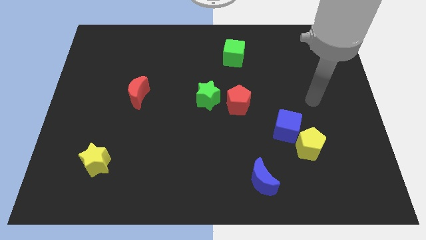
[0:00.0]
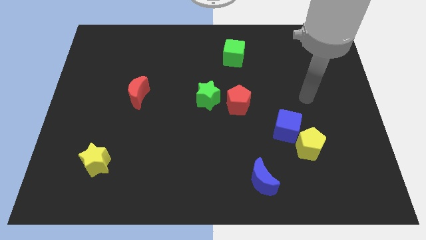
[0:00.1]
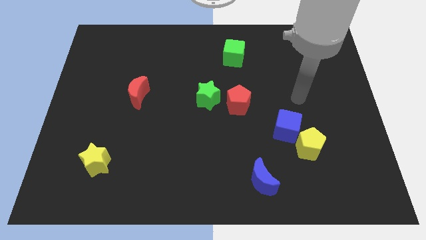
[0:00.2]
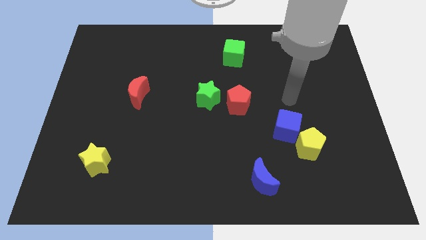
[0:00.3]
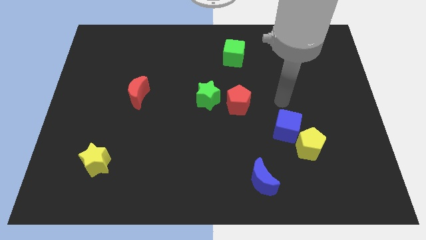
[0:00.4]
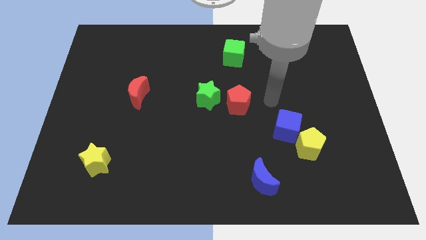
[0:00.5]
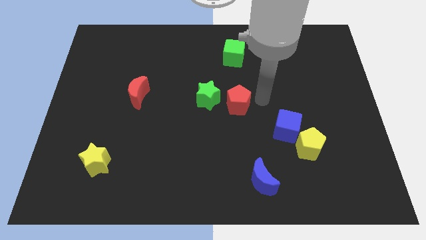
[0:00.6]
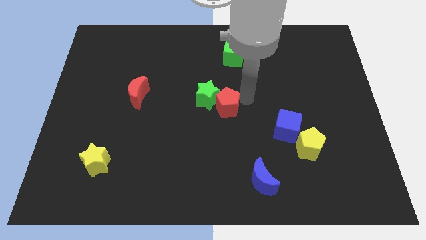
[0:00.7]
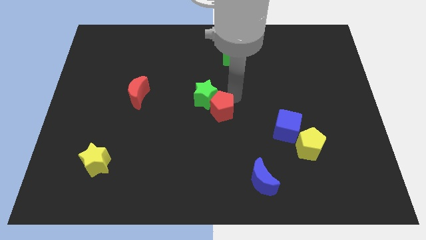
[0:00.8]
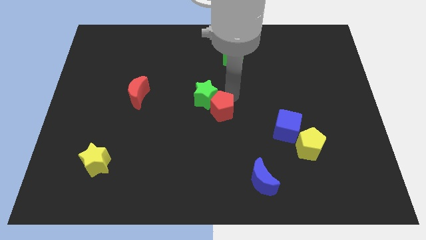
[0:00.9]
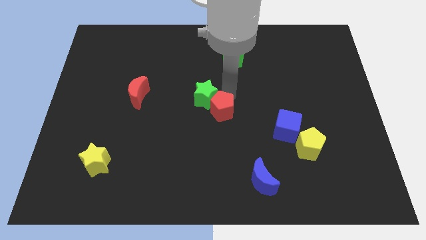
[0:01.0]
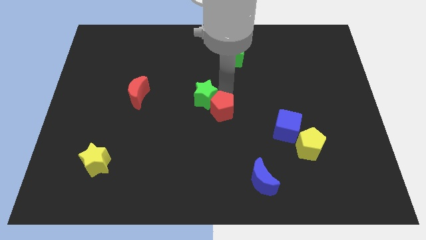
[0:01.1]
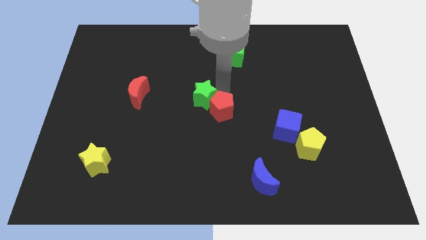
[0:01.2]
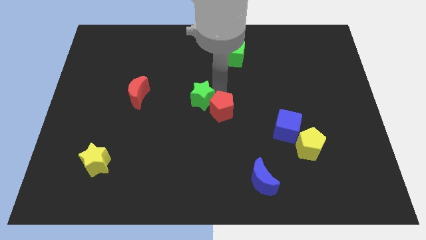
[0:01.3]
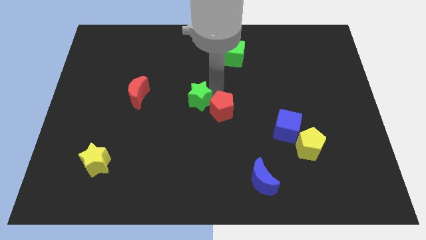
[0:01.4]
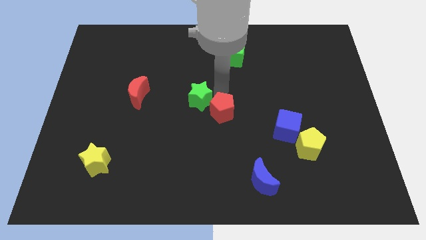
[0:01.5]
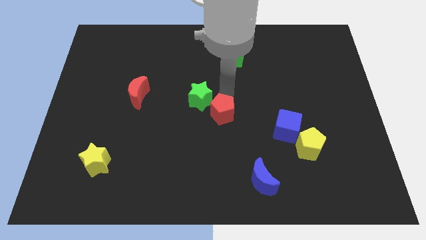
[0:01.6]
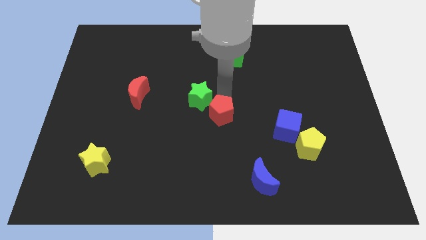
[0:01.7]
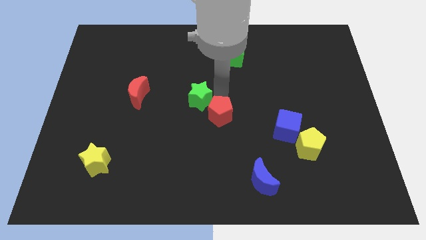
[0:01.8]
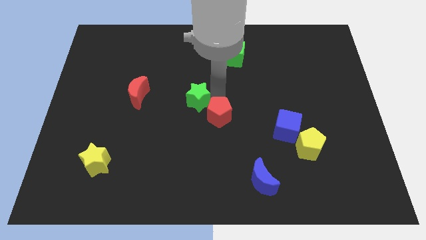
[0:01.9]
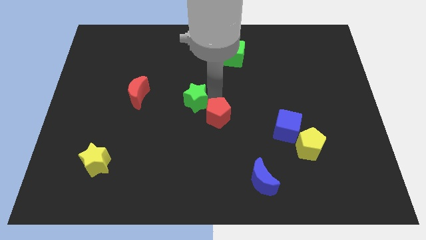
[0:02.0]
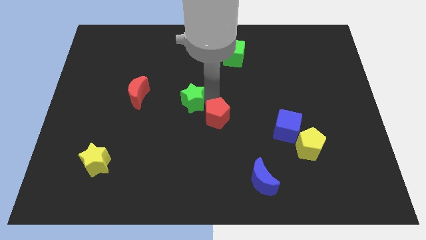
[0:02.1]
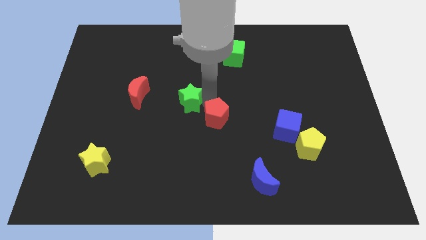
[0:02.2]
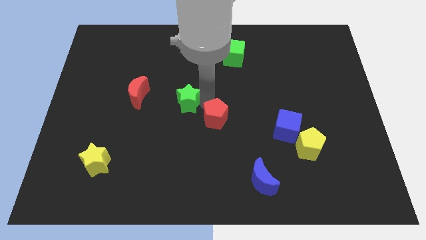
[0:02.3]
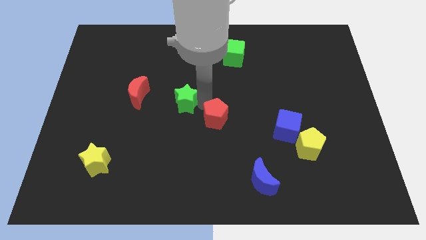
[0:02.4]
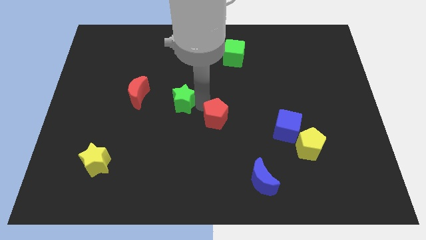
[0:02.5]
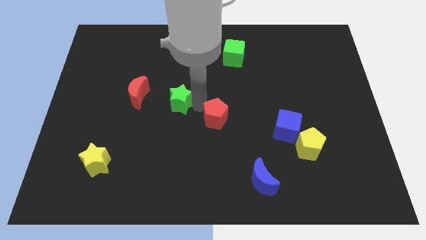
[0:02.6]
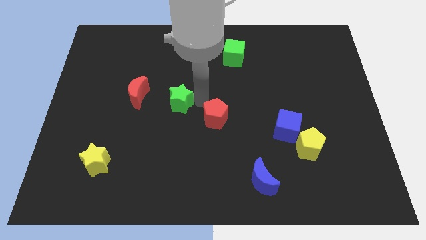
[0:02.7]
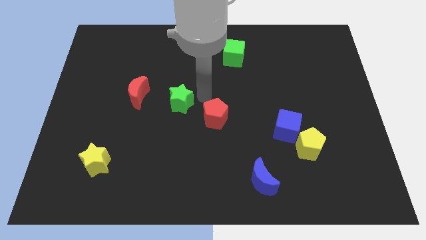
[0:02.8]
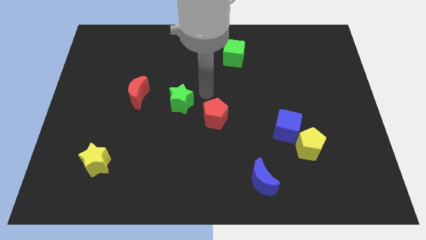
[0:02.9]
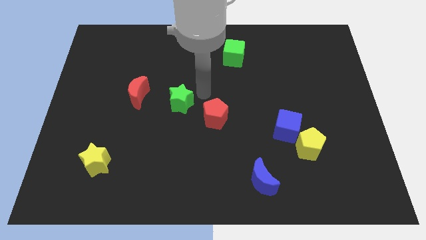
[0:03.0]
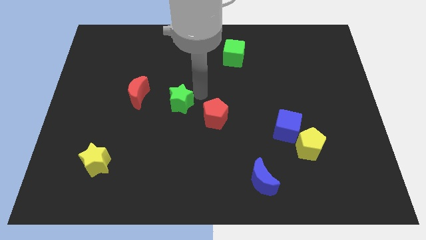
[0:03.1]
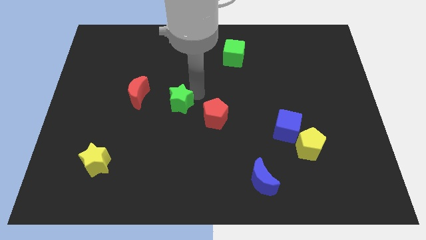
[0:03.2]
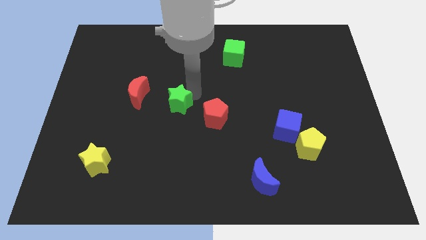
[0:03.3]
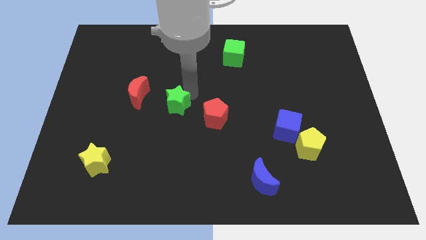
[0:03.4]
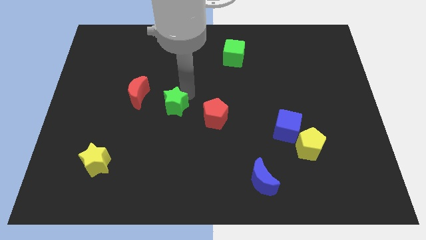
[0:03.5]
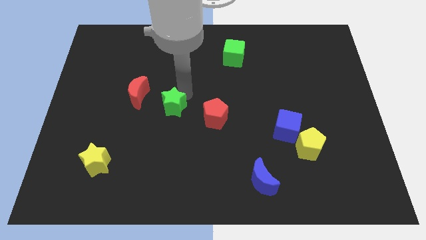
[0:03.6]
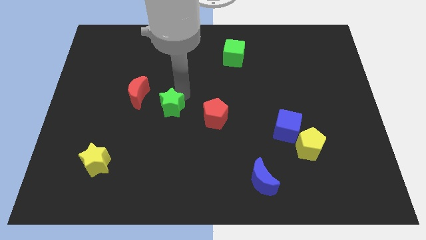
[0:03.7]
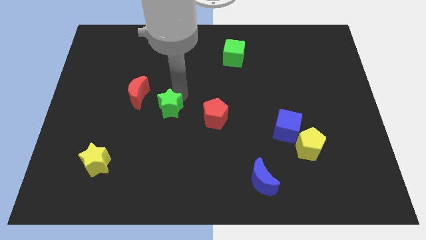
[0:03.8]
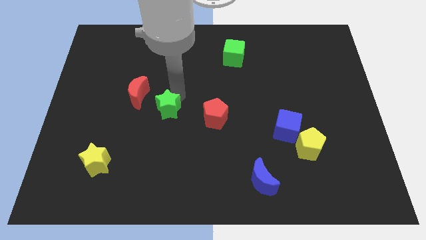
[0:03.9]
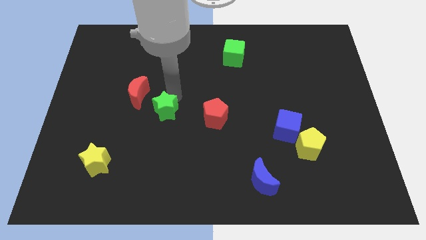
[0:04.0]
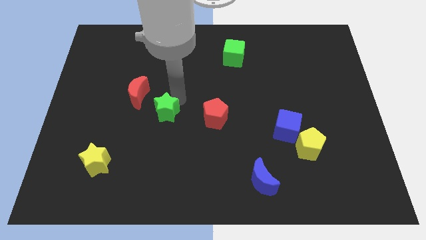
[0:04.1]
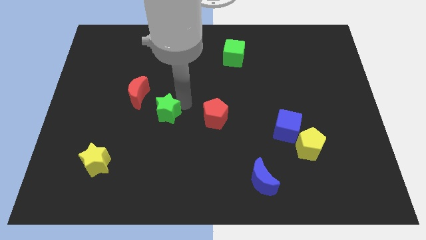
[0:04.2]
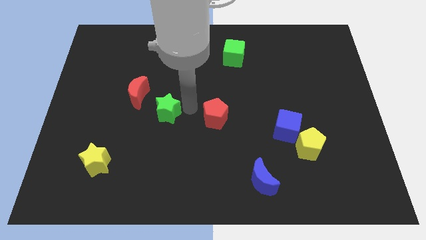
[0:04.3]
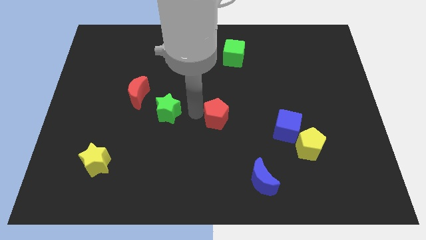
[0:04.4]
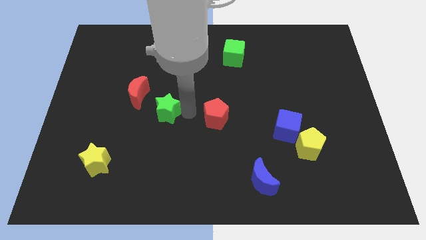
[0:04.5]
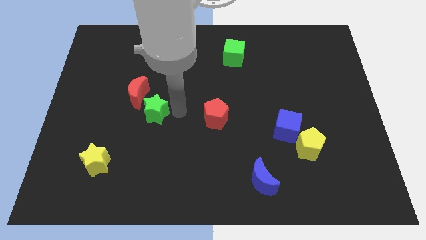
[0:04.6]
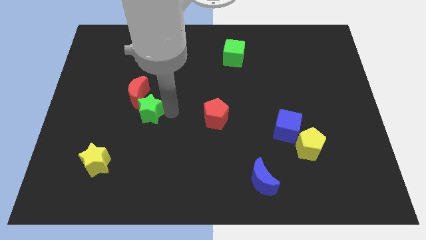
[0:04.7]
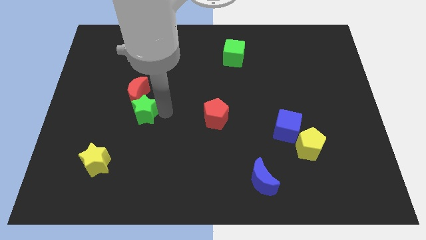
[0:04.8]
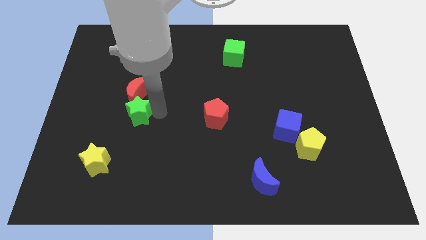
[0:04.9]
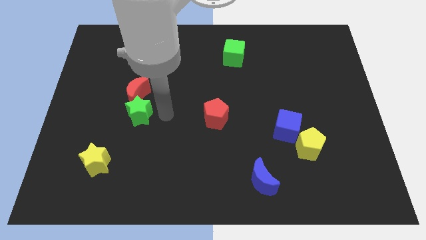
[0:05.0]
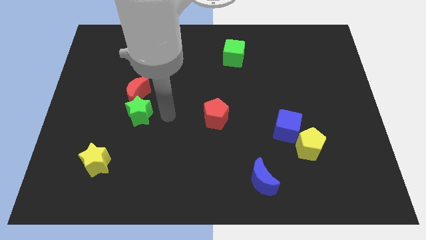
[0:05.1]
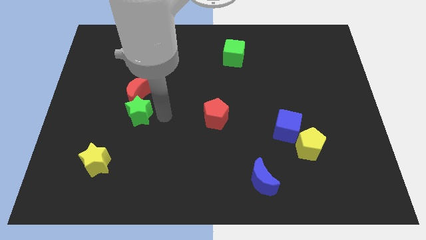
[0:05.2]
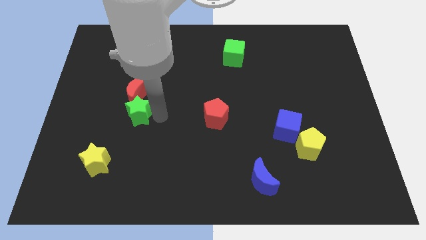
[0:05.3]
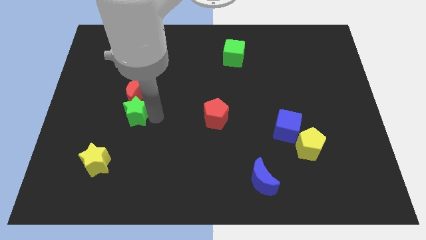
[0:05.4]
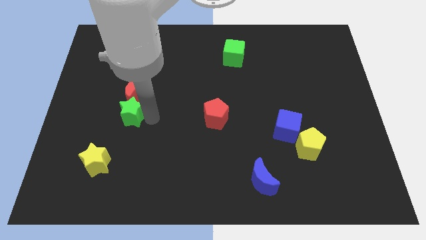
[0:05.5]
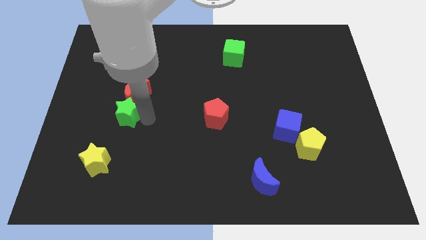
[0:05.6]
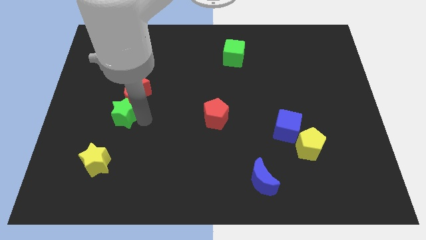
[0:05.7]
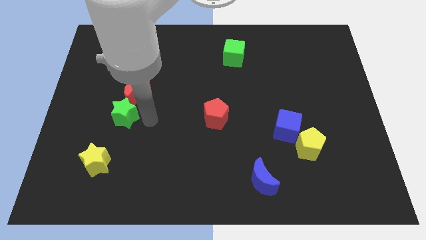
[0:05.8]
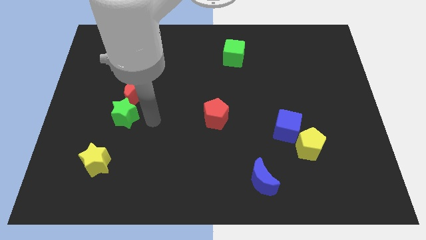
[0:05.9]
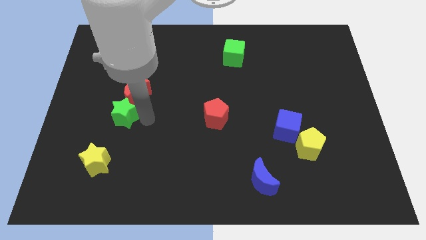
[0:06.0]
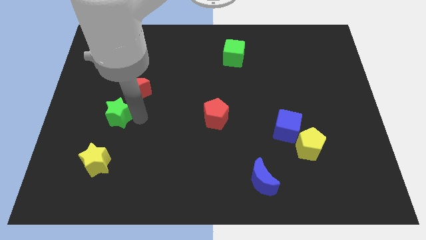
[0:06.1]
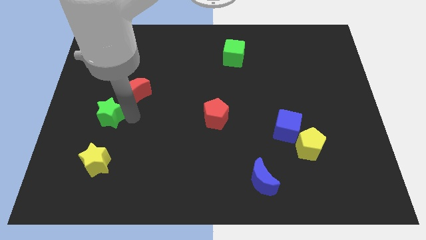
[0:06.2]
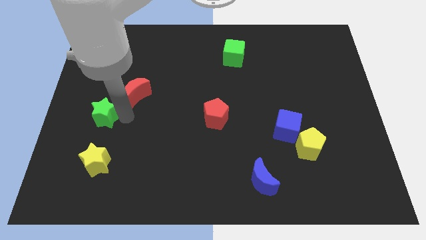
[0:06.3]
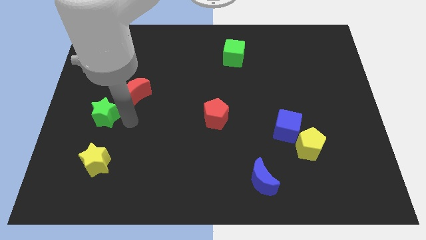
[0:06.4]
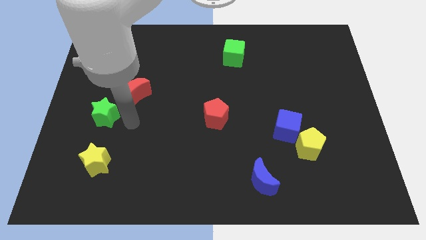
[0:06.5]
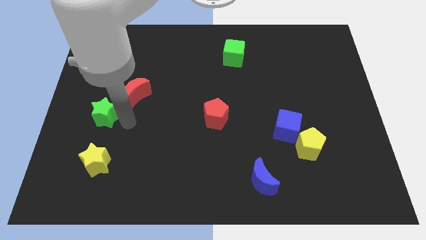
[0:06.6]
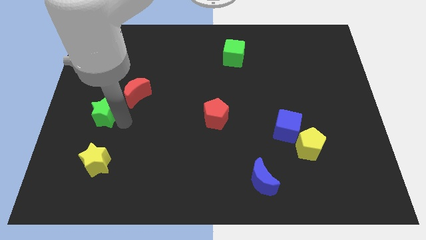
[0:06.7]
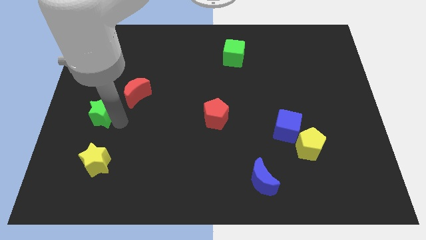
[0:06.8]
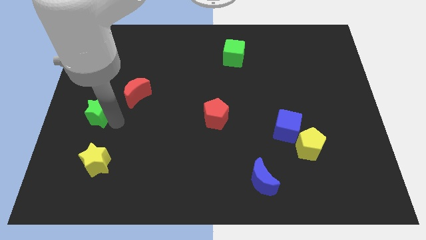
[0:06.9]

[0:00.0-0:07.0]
put the green star to the left side of the board
